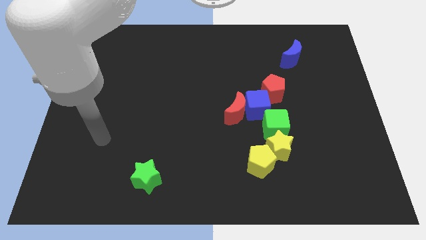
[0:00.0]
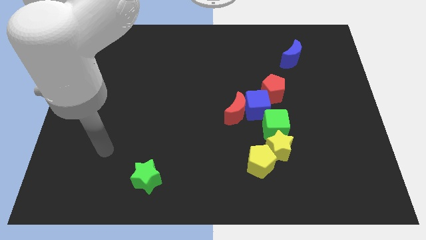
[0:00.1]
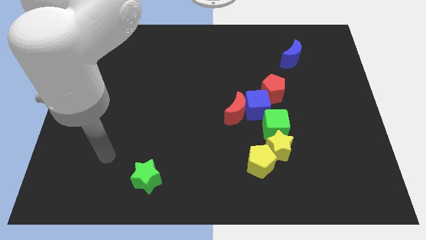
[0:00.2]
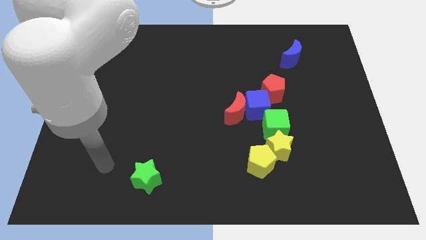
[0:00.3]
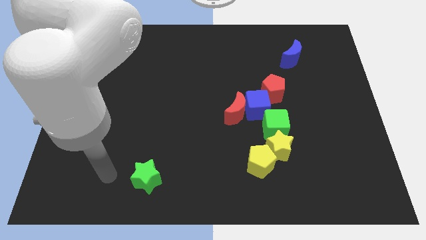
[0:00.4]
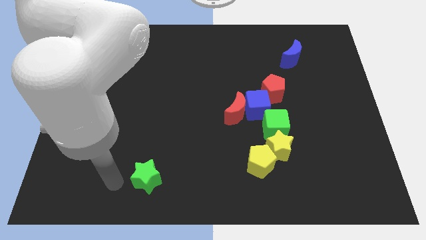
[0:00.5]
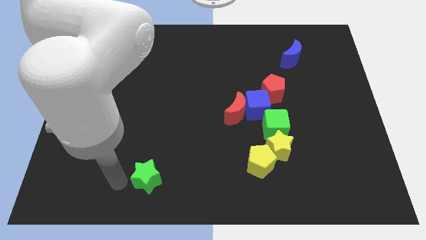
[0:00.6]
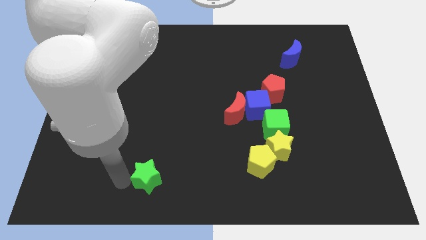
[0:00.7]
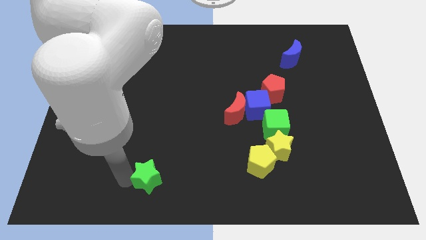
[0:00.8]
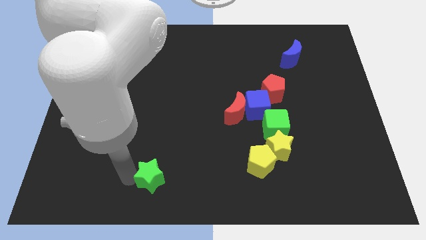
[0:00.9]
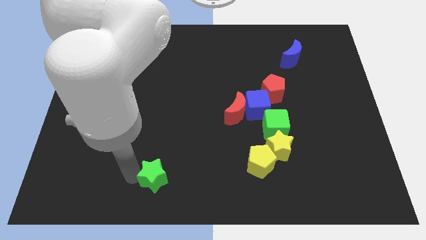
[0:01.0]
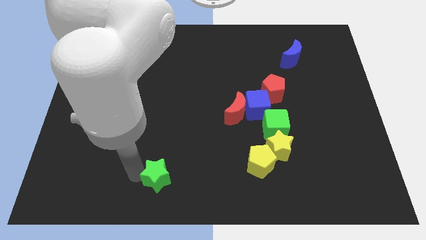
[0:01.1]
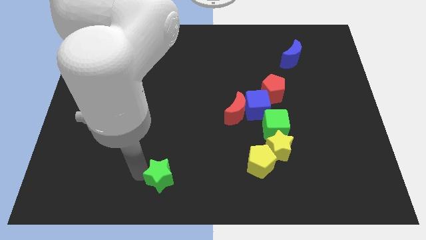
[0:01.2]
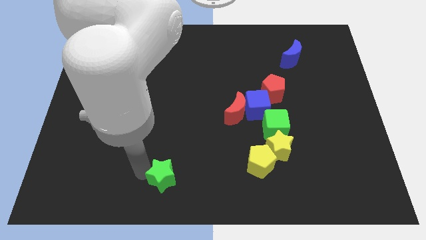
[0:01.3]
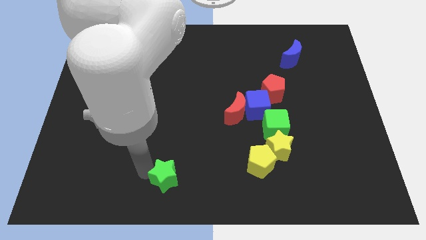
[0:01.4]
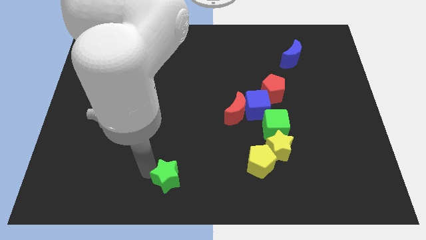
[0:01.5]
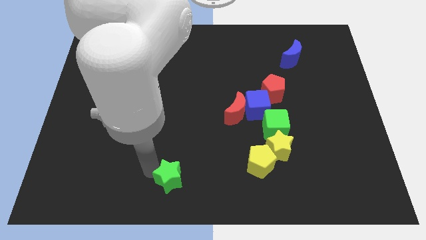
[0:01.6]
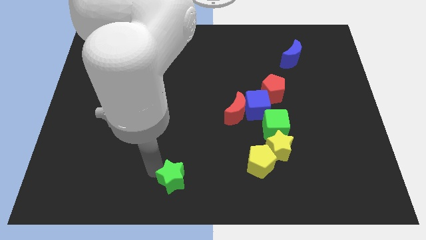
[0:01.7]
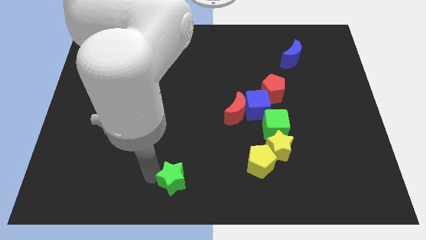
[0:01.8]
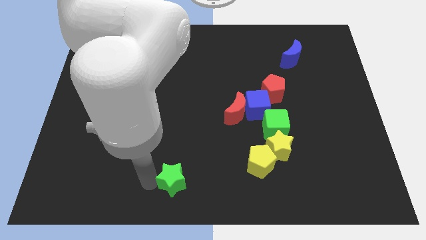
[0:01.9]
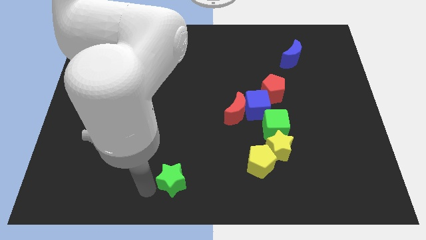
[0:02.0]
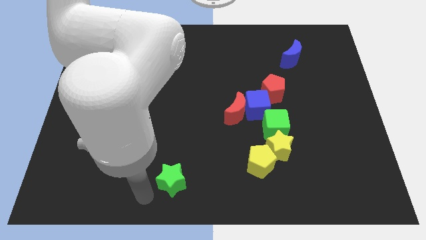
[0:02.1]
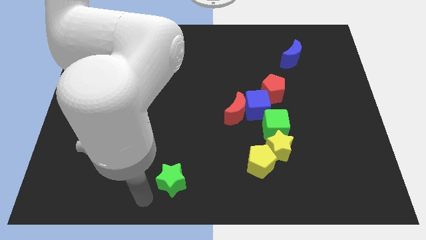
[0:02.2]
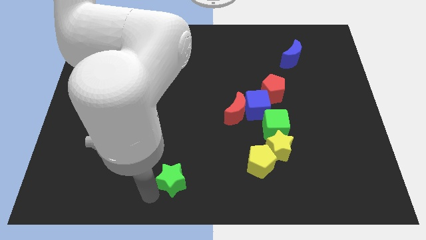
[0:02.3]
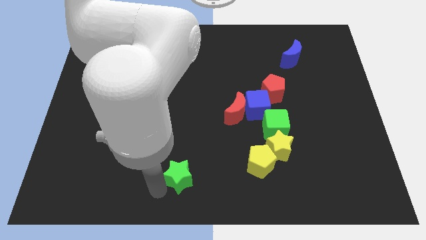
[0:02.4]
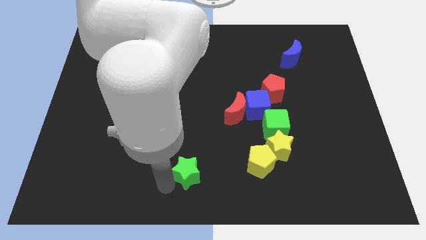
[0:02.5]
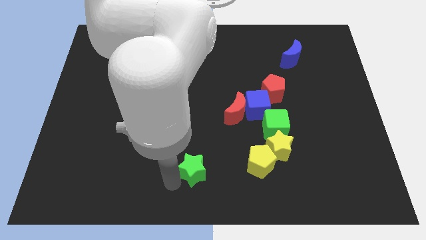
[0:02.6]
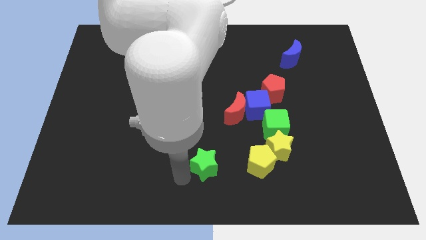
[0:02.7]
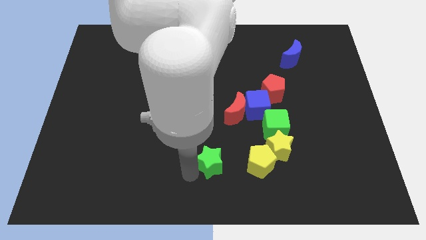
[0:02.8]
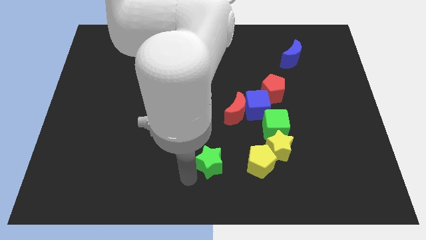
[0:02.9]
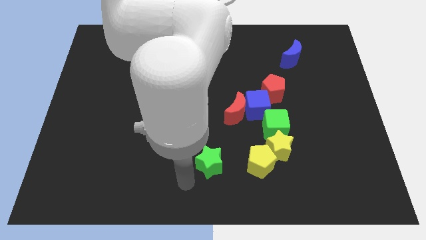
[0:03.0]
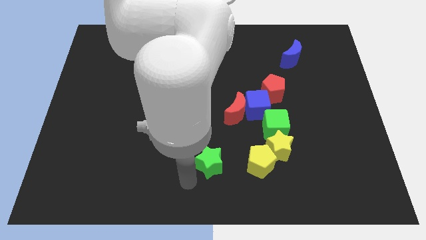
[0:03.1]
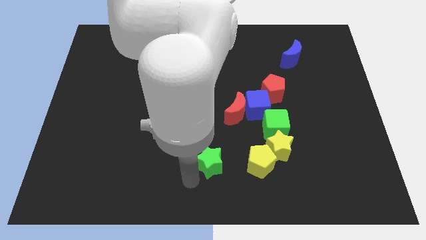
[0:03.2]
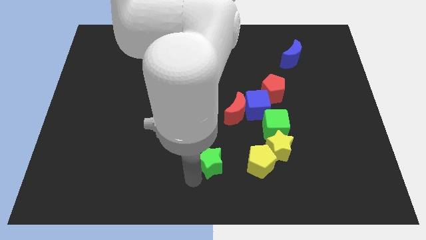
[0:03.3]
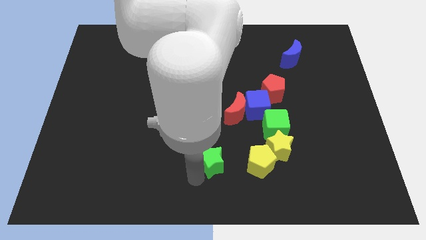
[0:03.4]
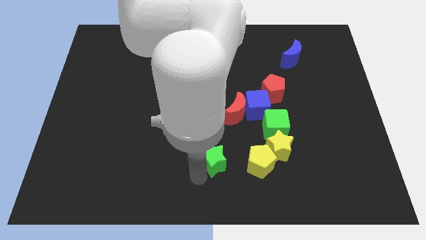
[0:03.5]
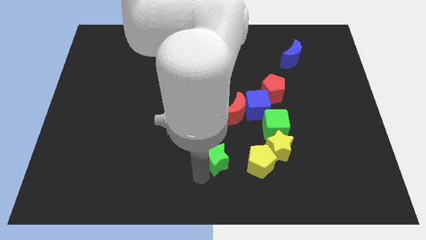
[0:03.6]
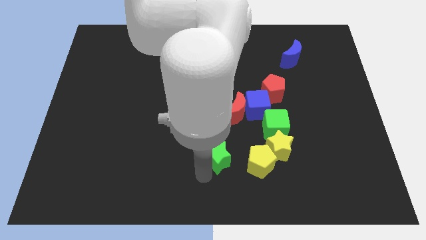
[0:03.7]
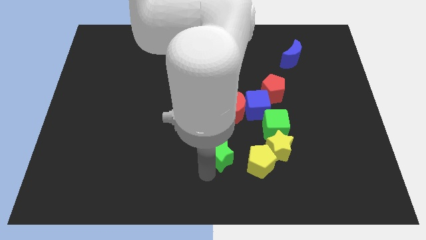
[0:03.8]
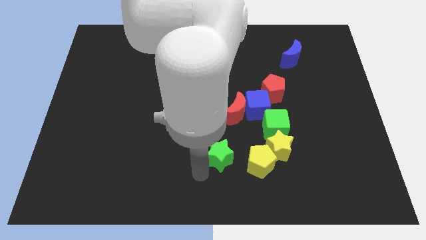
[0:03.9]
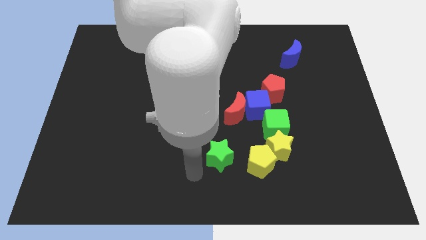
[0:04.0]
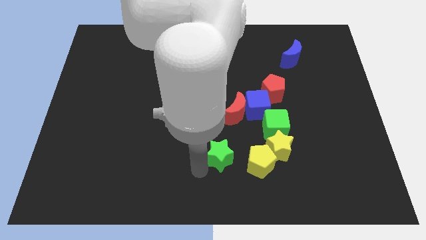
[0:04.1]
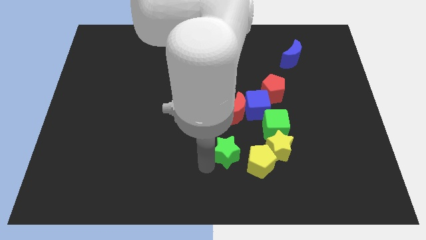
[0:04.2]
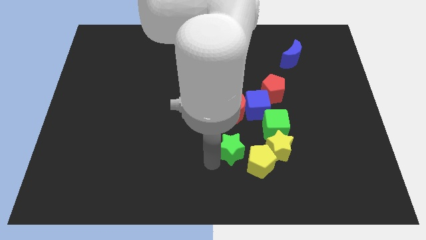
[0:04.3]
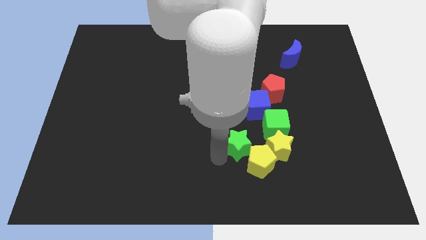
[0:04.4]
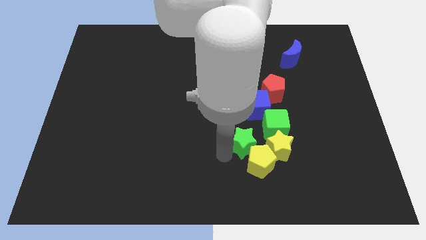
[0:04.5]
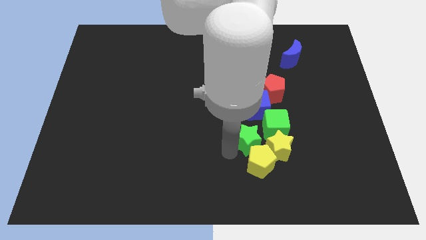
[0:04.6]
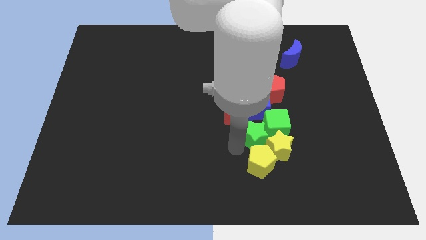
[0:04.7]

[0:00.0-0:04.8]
push the green star towards the green cube

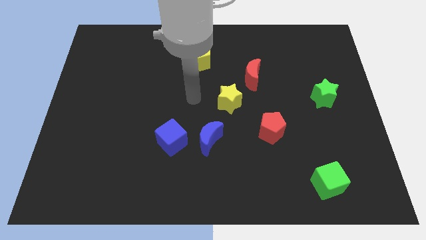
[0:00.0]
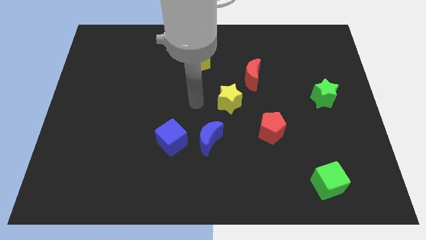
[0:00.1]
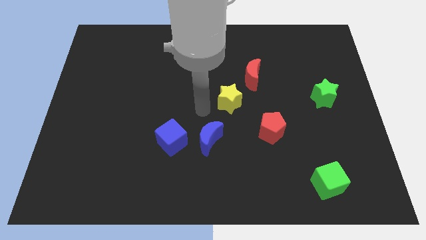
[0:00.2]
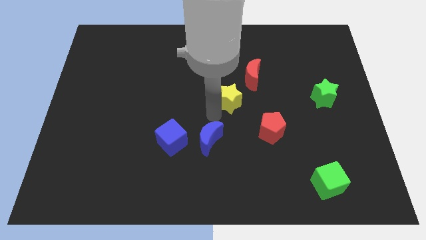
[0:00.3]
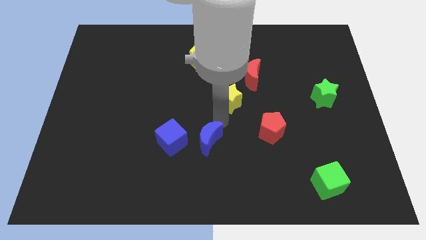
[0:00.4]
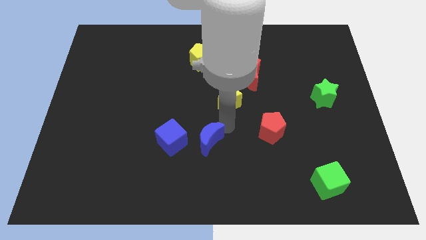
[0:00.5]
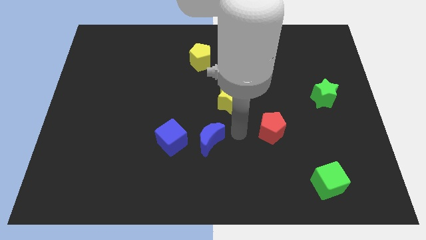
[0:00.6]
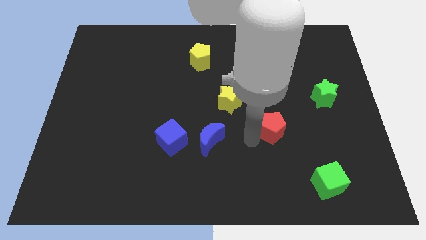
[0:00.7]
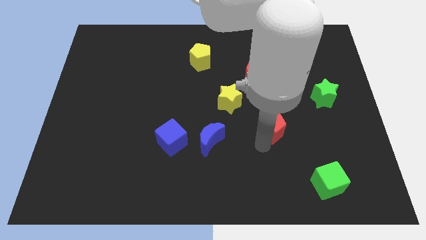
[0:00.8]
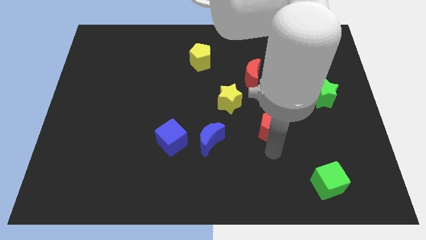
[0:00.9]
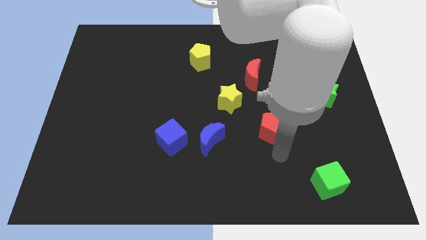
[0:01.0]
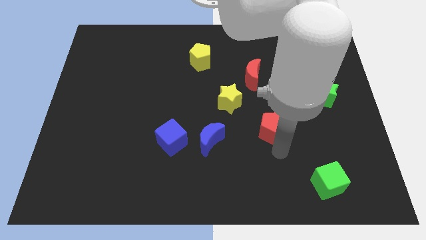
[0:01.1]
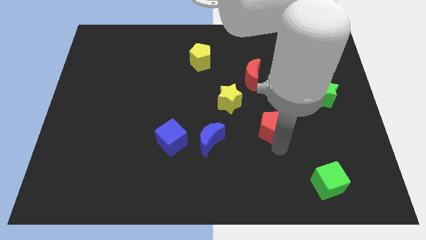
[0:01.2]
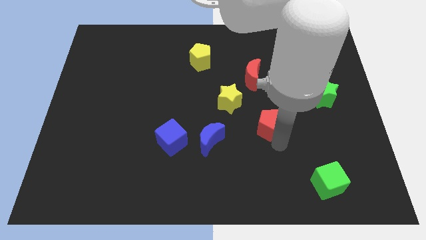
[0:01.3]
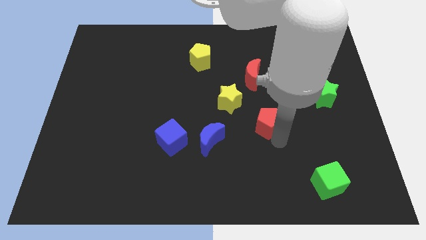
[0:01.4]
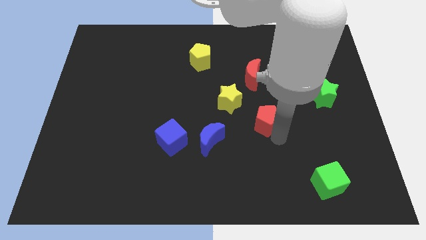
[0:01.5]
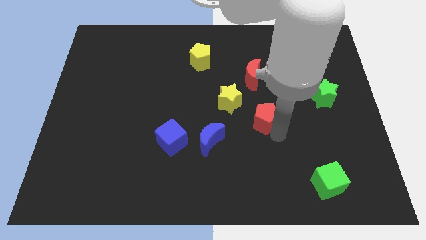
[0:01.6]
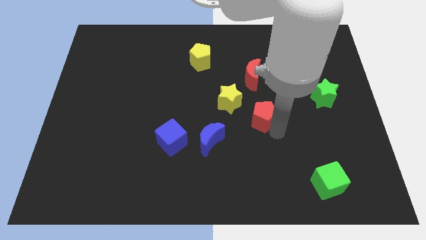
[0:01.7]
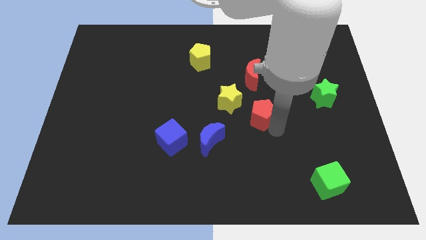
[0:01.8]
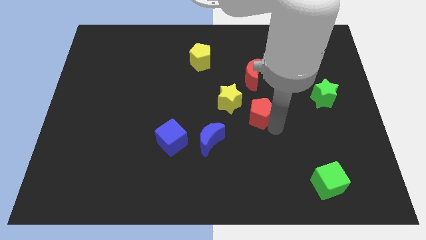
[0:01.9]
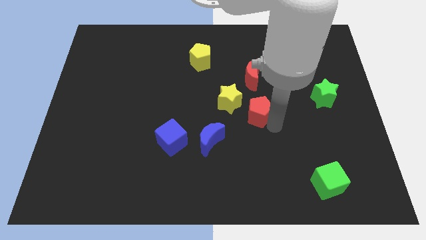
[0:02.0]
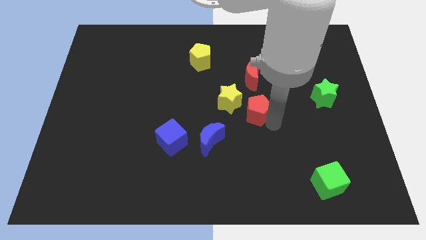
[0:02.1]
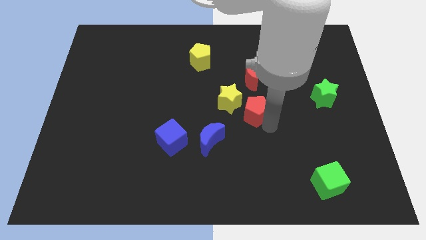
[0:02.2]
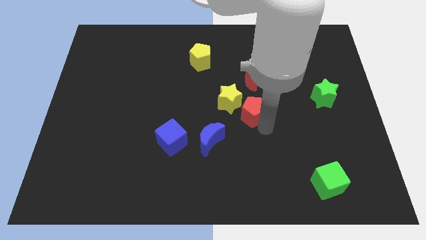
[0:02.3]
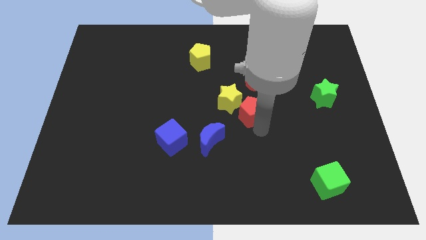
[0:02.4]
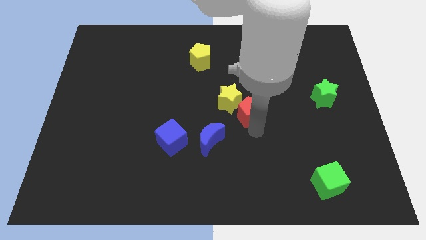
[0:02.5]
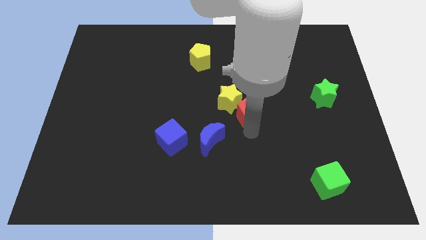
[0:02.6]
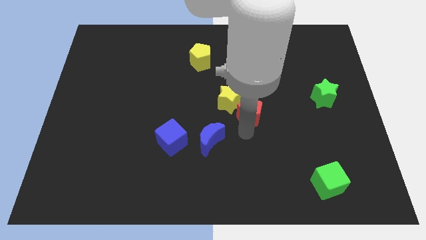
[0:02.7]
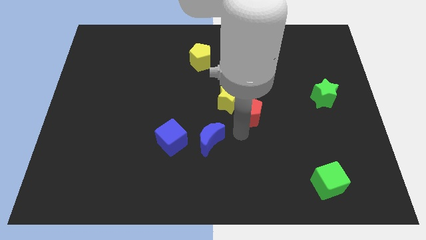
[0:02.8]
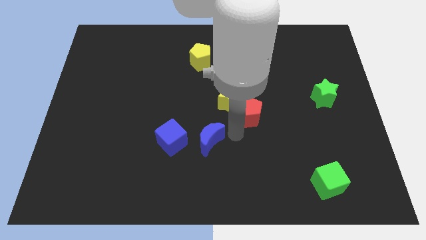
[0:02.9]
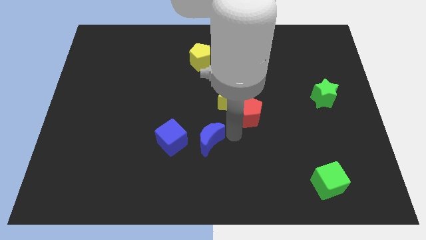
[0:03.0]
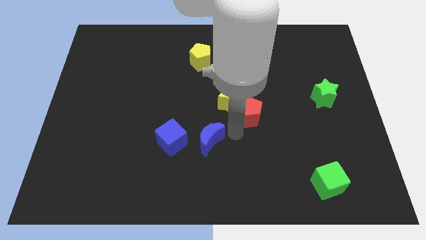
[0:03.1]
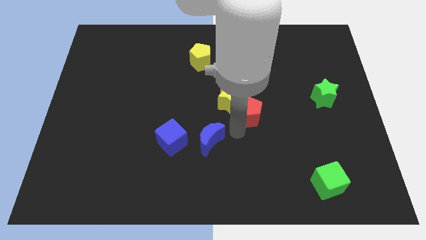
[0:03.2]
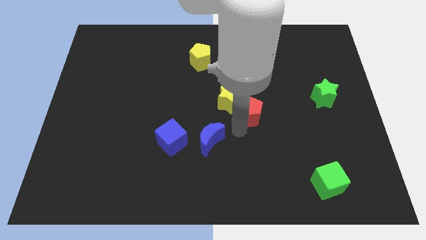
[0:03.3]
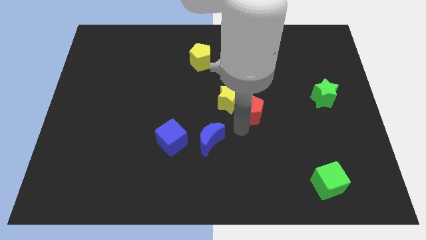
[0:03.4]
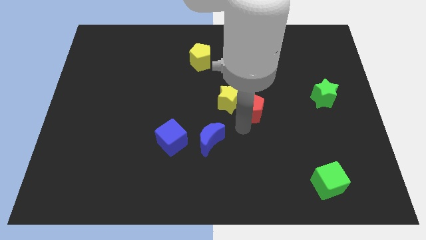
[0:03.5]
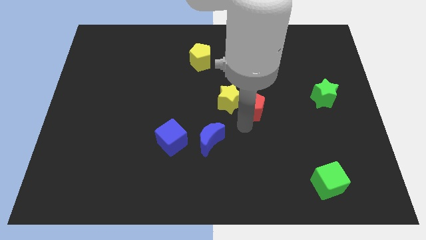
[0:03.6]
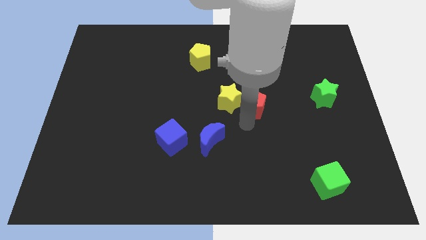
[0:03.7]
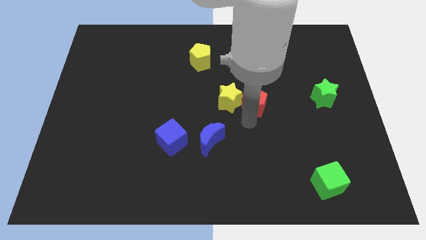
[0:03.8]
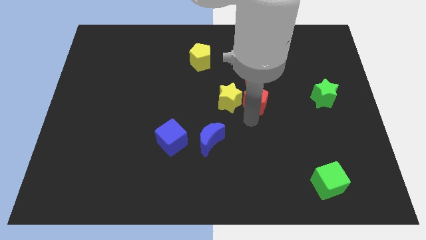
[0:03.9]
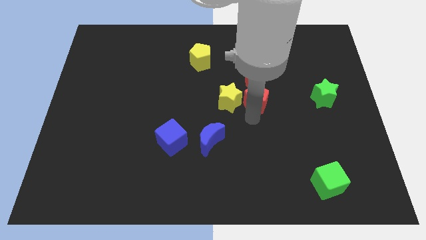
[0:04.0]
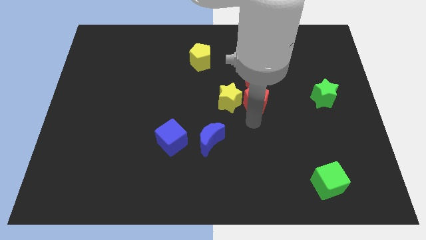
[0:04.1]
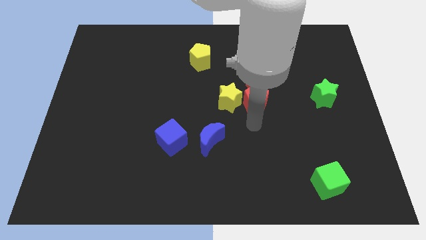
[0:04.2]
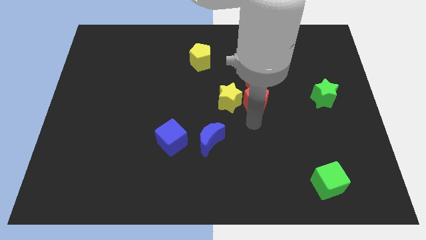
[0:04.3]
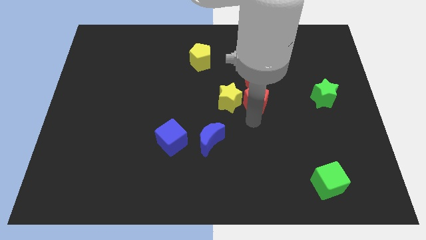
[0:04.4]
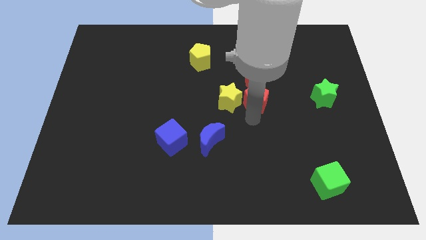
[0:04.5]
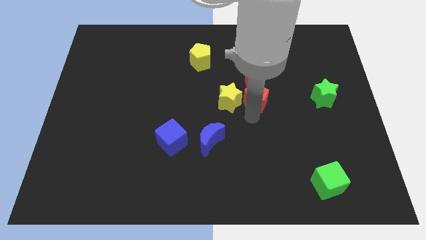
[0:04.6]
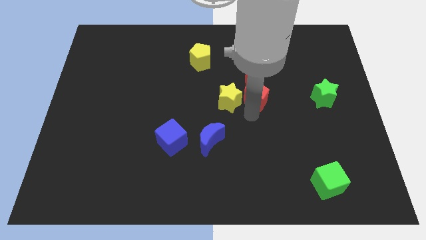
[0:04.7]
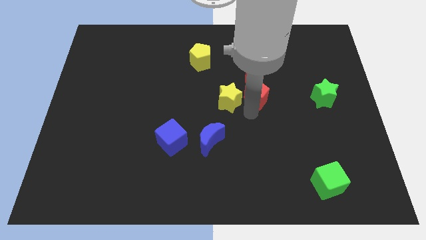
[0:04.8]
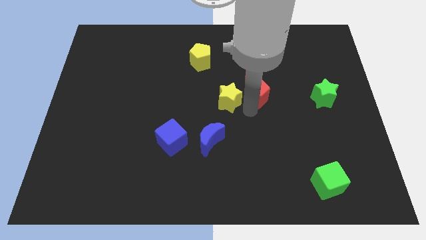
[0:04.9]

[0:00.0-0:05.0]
move the red pentagon towards the red moon
